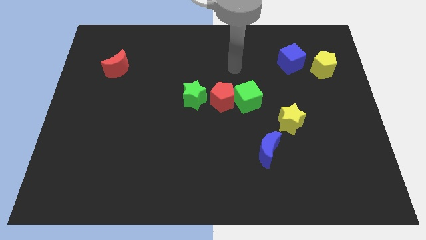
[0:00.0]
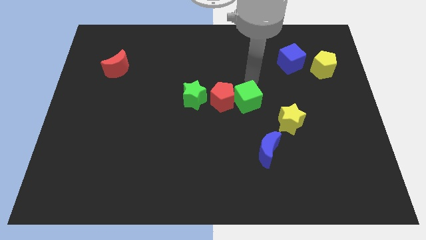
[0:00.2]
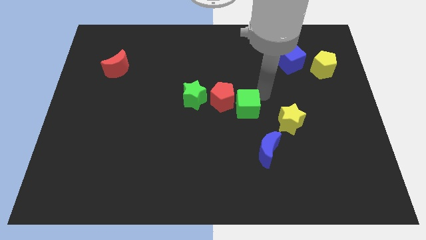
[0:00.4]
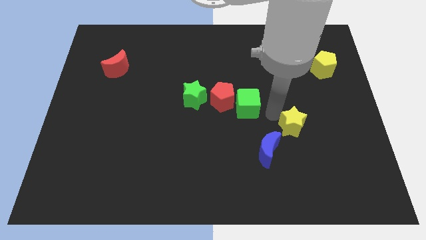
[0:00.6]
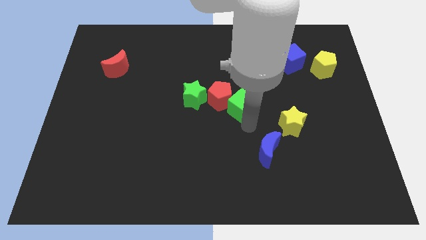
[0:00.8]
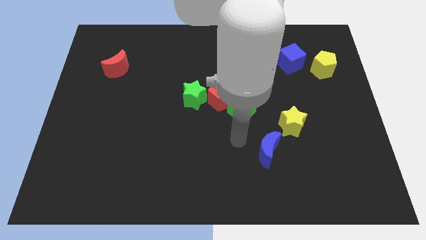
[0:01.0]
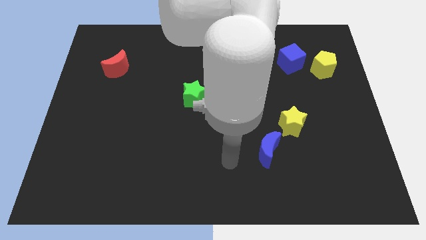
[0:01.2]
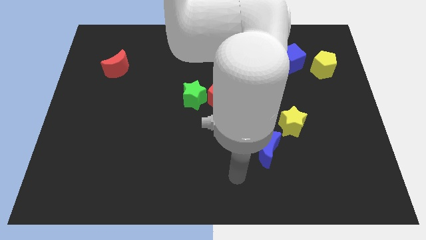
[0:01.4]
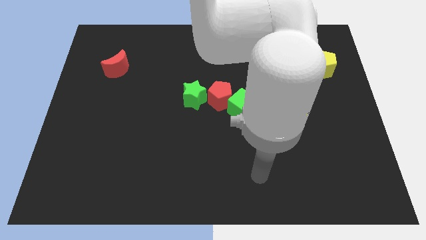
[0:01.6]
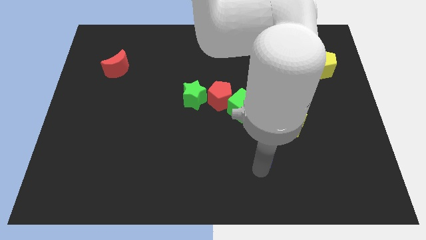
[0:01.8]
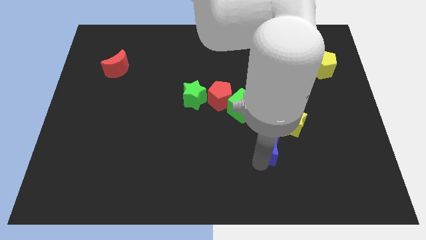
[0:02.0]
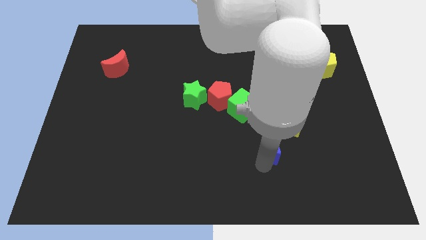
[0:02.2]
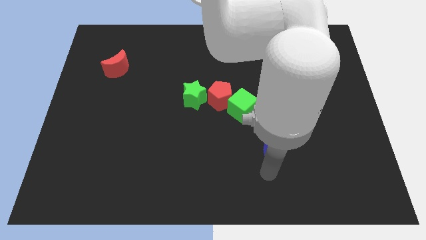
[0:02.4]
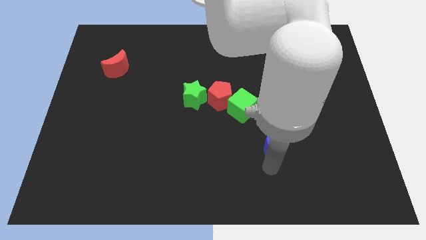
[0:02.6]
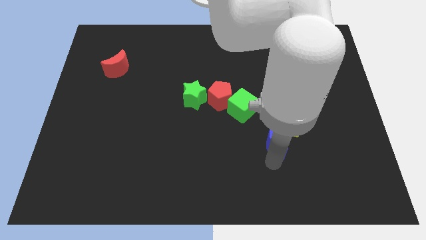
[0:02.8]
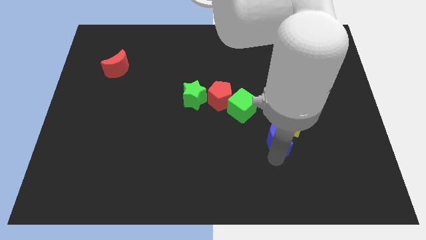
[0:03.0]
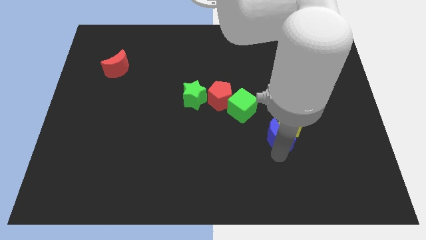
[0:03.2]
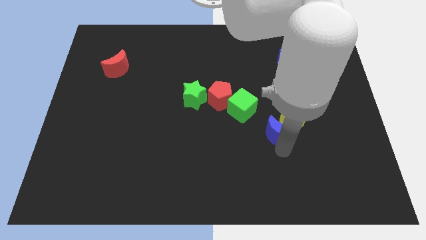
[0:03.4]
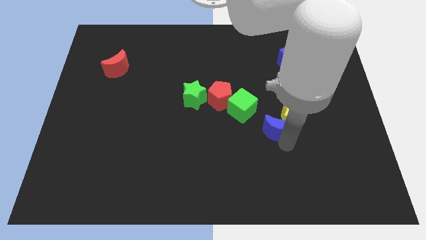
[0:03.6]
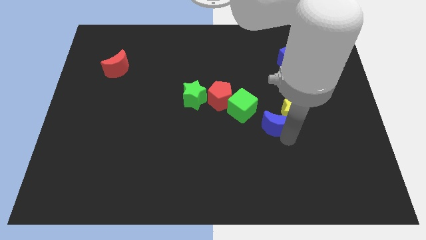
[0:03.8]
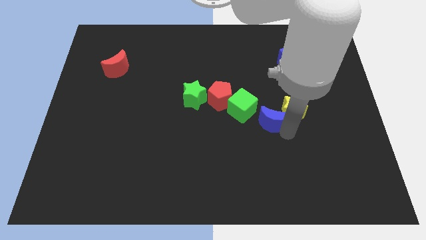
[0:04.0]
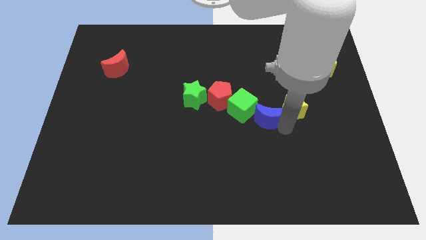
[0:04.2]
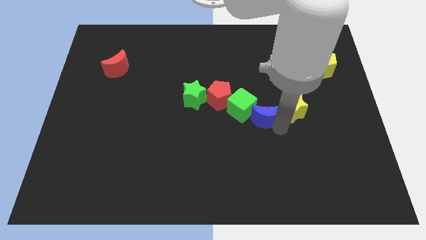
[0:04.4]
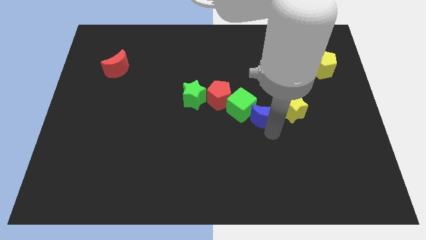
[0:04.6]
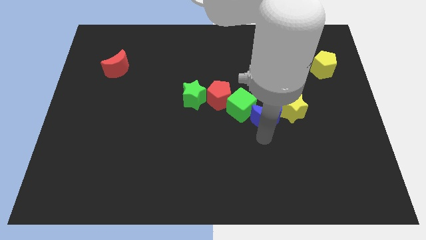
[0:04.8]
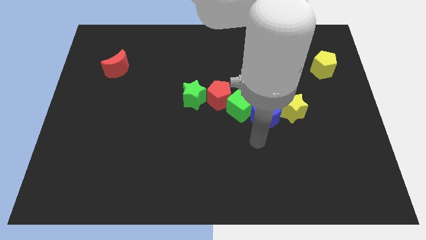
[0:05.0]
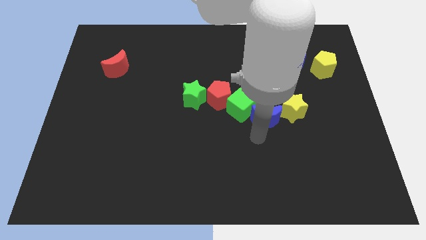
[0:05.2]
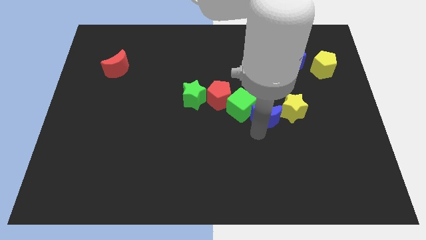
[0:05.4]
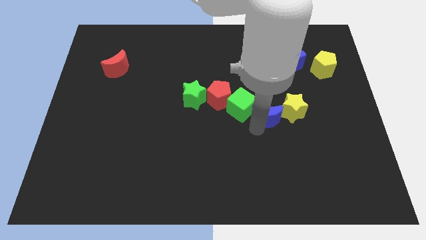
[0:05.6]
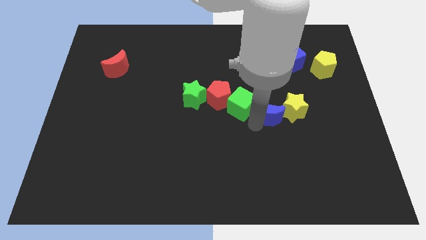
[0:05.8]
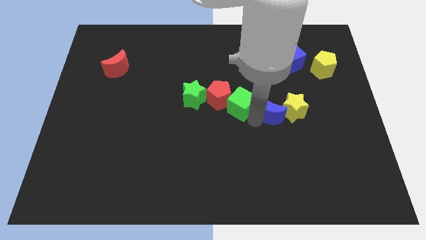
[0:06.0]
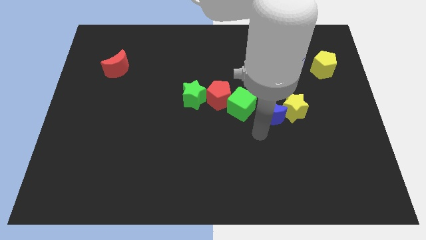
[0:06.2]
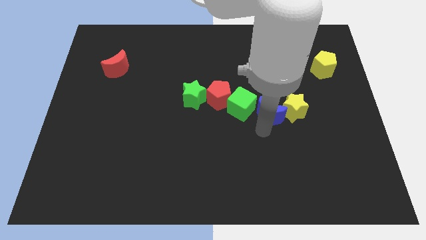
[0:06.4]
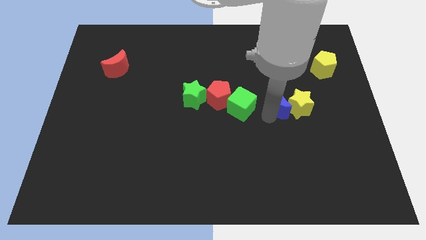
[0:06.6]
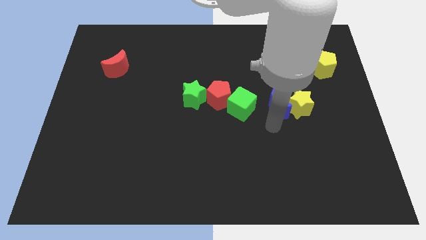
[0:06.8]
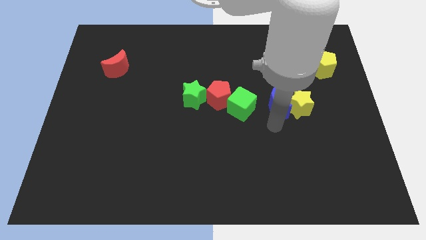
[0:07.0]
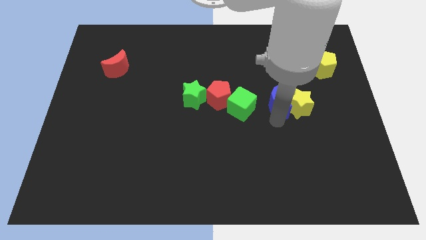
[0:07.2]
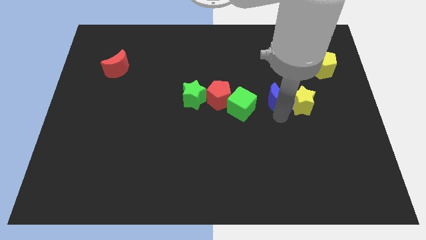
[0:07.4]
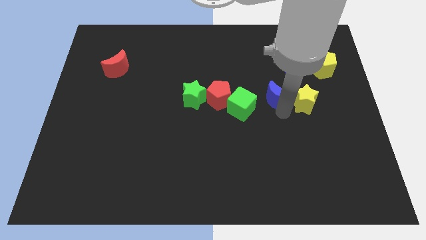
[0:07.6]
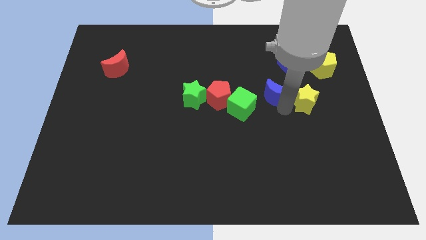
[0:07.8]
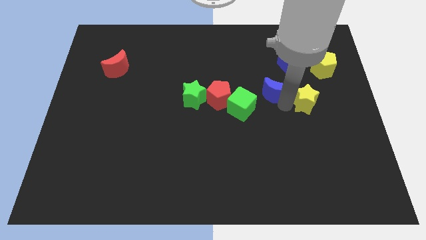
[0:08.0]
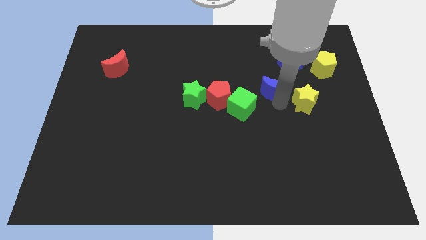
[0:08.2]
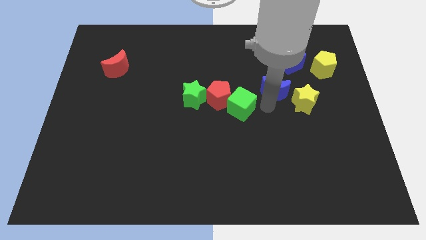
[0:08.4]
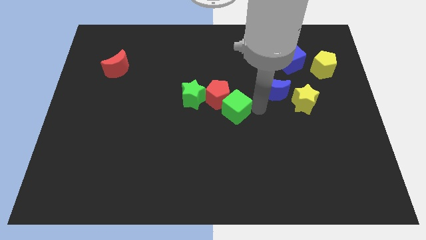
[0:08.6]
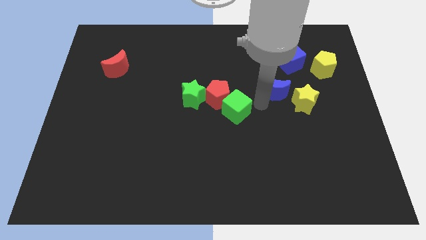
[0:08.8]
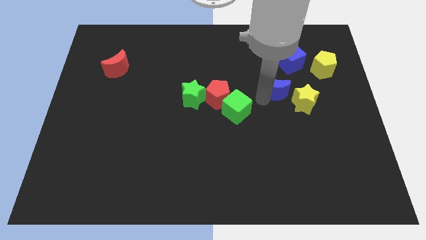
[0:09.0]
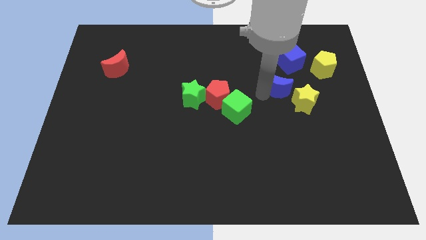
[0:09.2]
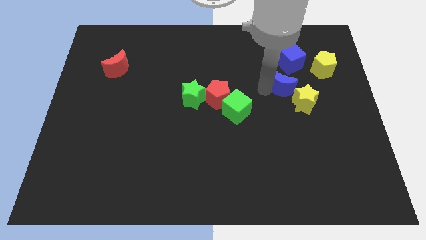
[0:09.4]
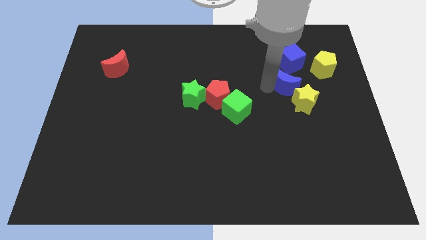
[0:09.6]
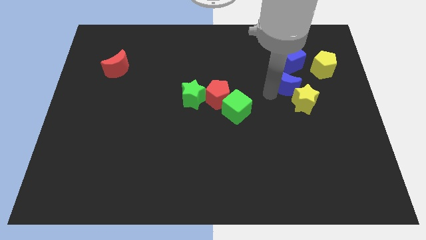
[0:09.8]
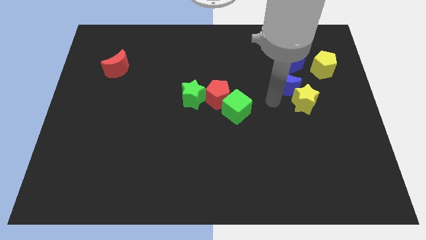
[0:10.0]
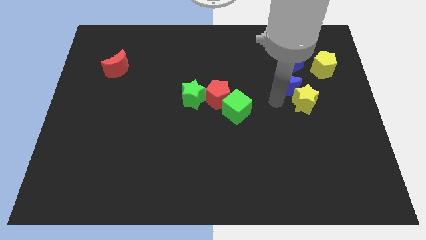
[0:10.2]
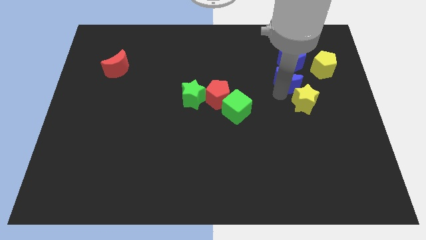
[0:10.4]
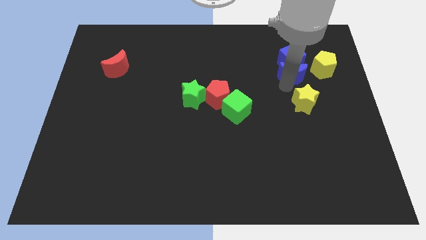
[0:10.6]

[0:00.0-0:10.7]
push the blue moon next to the blue cube

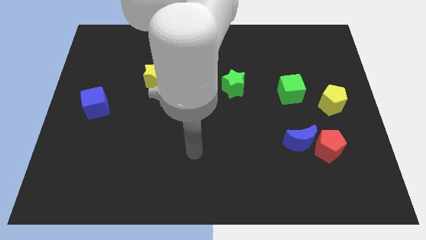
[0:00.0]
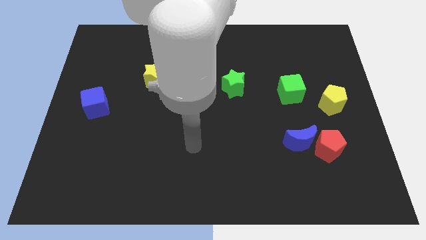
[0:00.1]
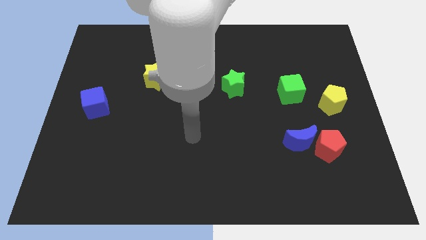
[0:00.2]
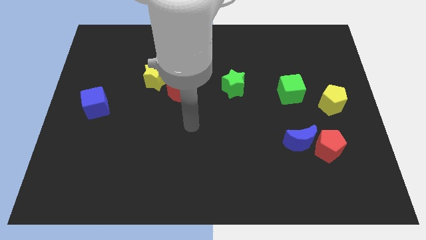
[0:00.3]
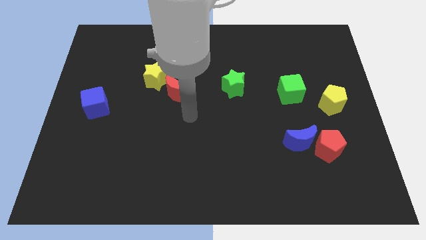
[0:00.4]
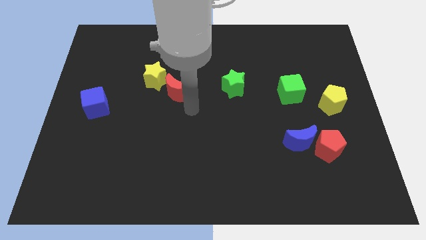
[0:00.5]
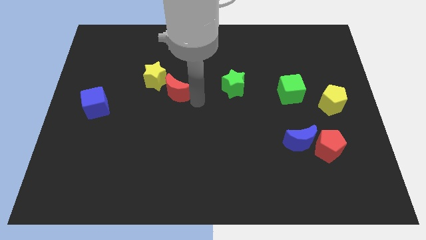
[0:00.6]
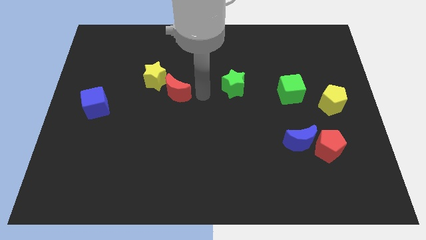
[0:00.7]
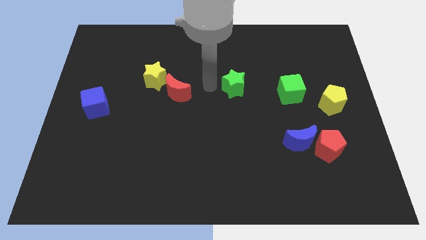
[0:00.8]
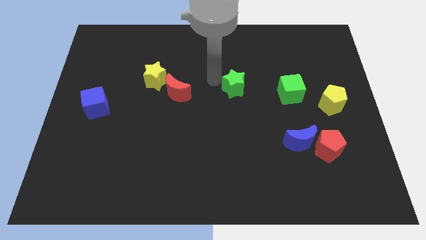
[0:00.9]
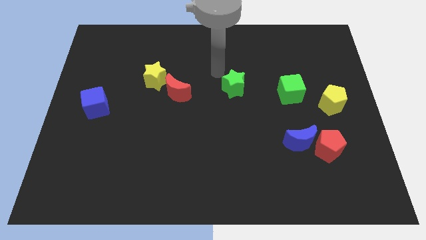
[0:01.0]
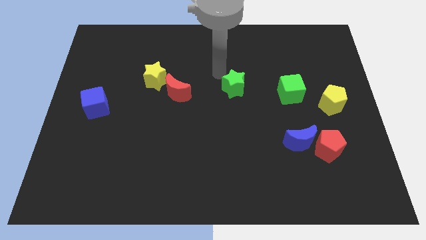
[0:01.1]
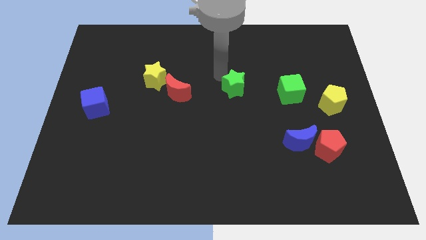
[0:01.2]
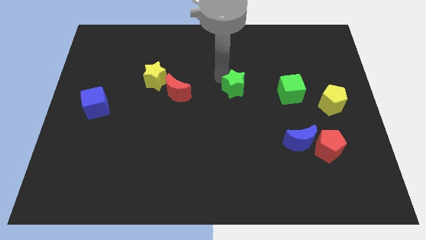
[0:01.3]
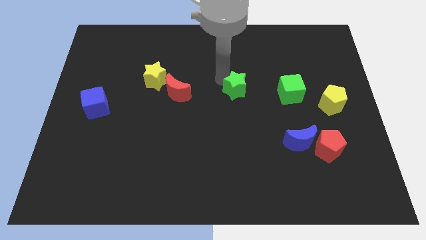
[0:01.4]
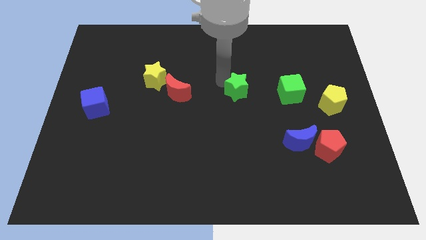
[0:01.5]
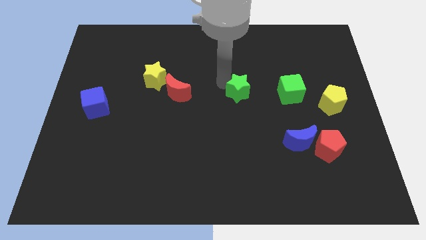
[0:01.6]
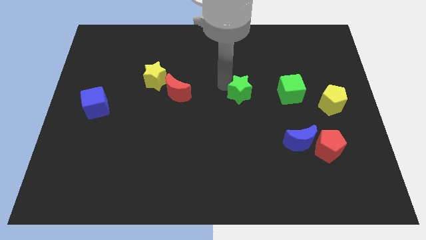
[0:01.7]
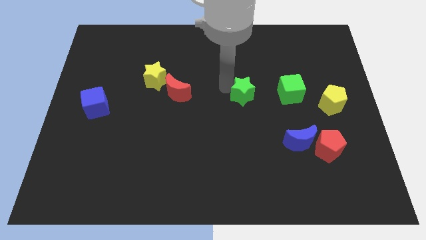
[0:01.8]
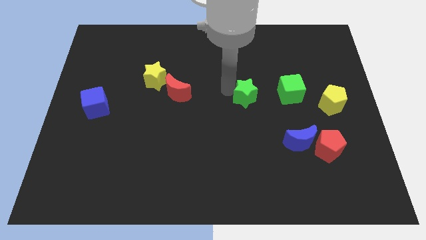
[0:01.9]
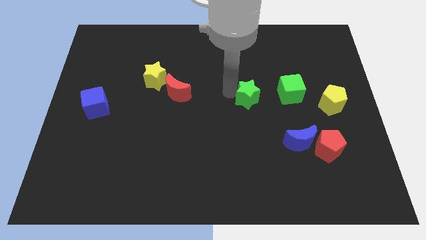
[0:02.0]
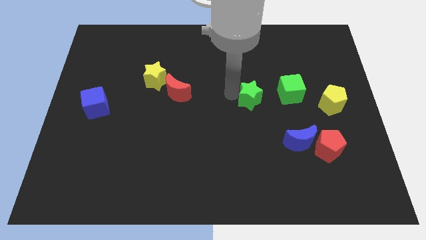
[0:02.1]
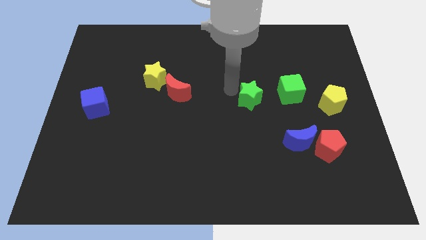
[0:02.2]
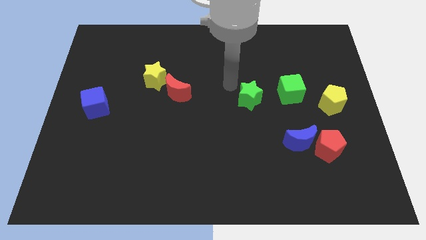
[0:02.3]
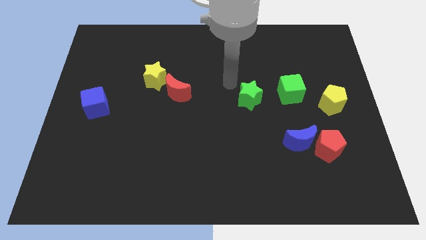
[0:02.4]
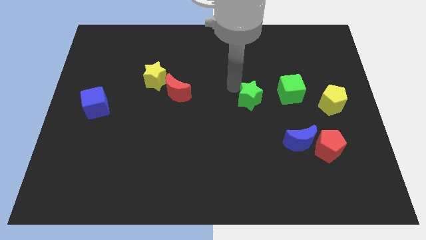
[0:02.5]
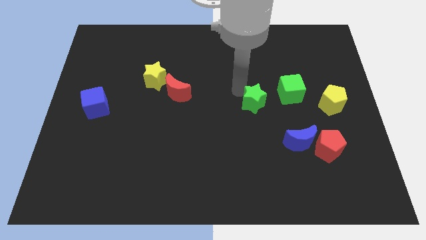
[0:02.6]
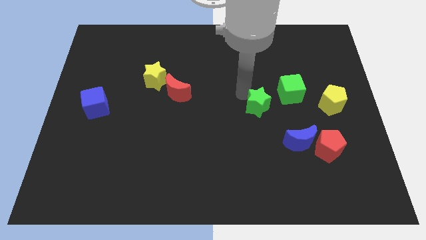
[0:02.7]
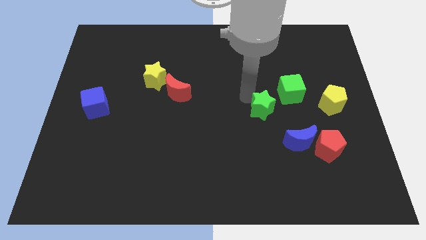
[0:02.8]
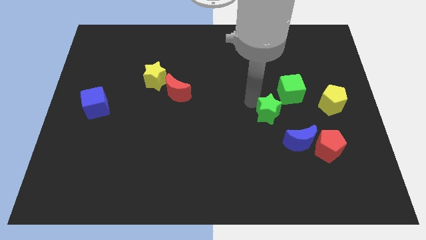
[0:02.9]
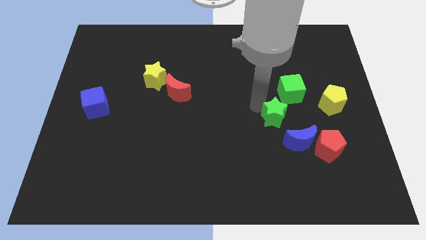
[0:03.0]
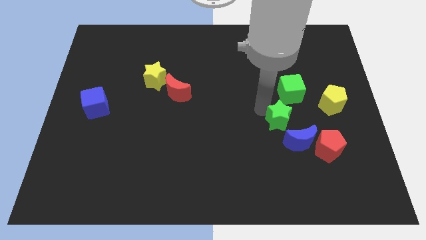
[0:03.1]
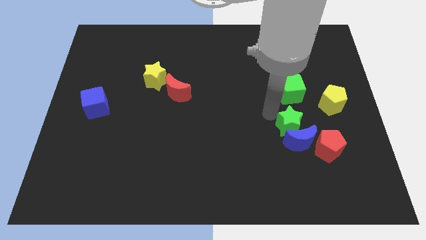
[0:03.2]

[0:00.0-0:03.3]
push the green star to the blue moon
